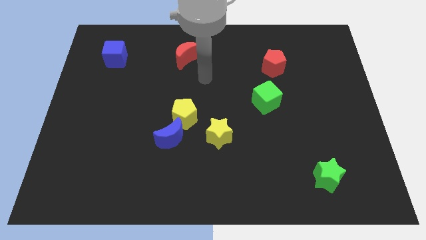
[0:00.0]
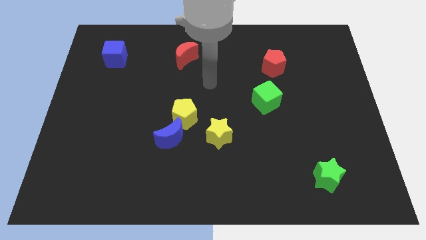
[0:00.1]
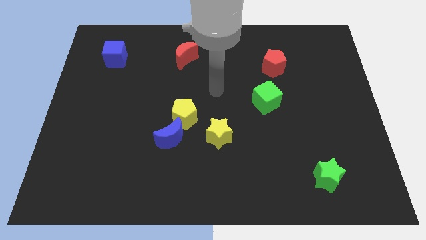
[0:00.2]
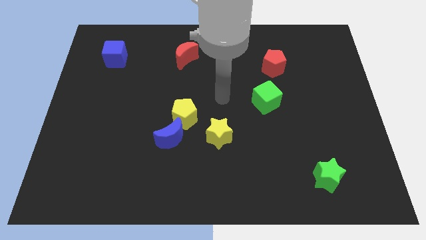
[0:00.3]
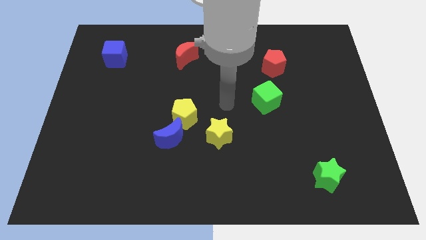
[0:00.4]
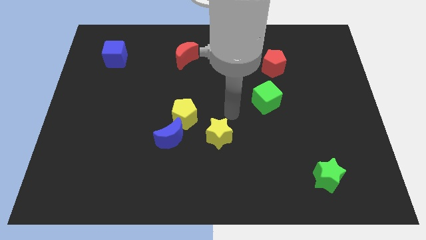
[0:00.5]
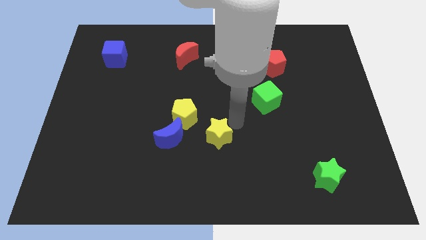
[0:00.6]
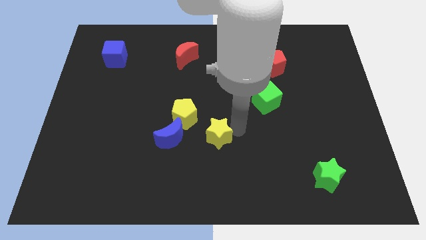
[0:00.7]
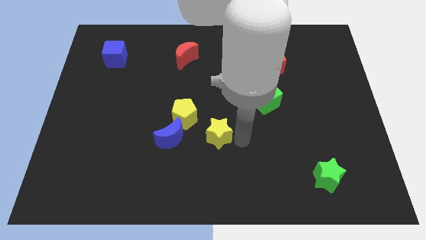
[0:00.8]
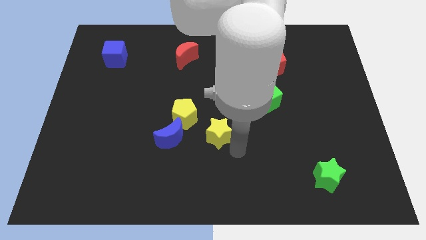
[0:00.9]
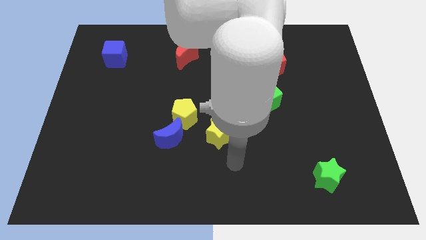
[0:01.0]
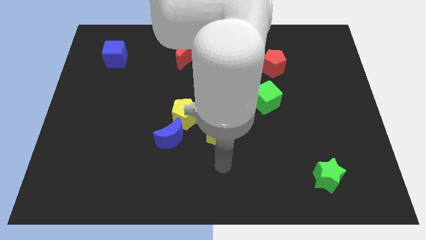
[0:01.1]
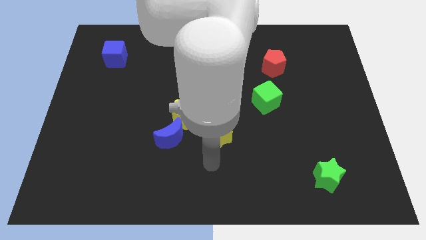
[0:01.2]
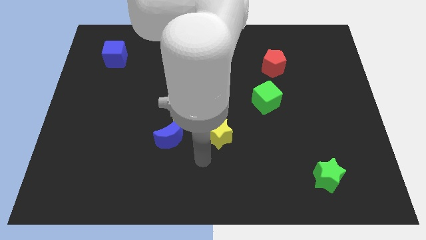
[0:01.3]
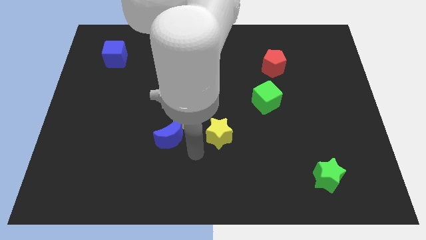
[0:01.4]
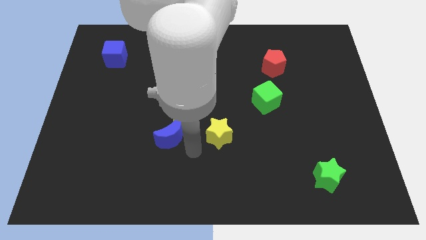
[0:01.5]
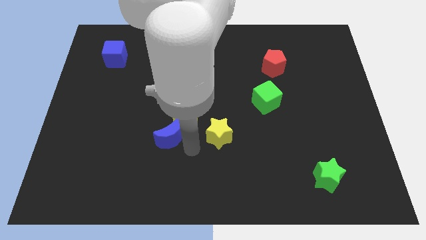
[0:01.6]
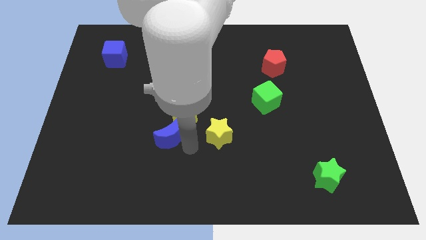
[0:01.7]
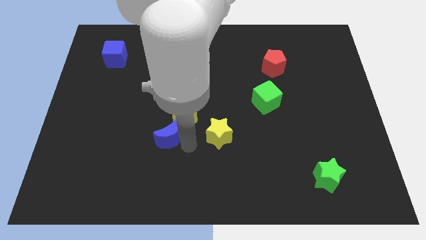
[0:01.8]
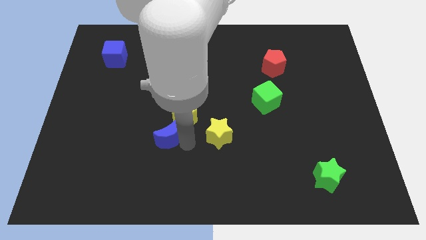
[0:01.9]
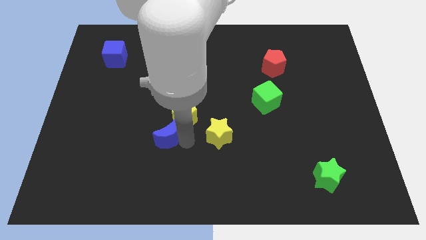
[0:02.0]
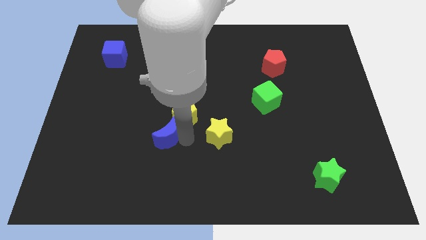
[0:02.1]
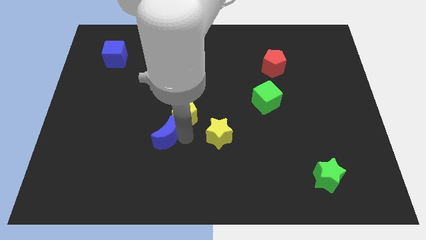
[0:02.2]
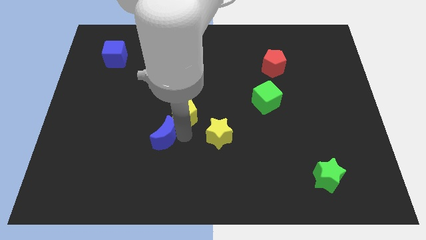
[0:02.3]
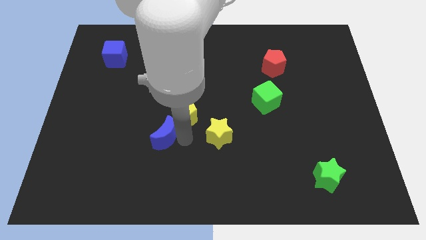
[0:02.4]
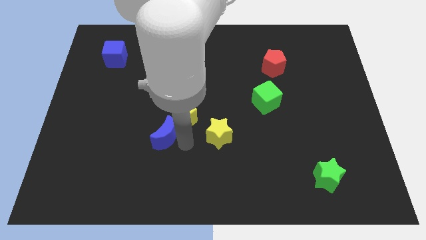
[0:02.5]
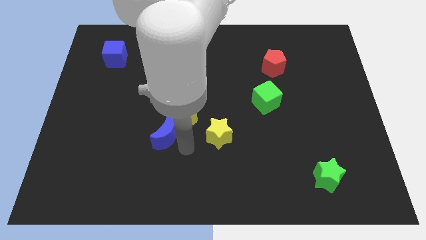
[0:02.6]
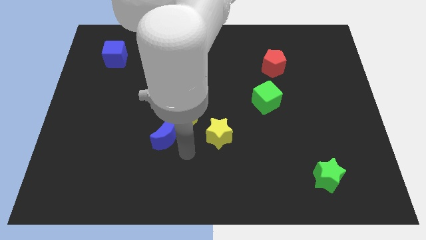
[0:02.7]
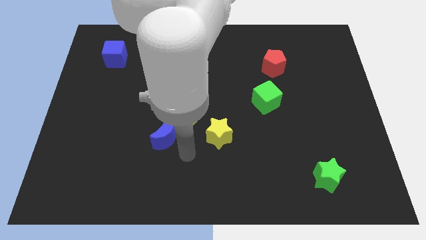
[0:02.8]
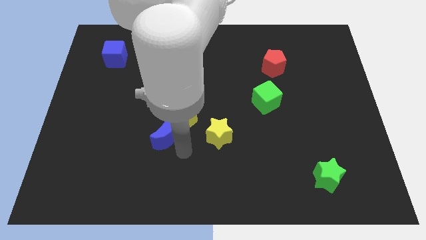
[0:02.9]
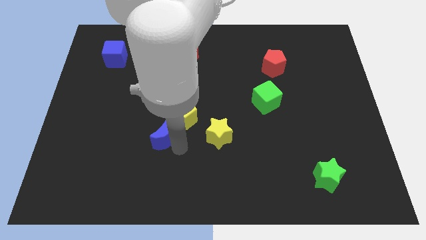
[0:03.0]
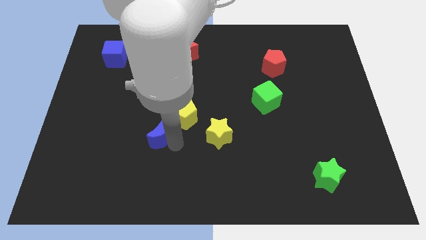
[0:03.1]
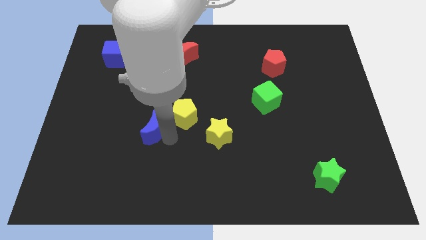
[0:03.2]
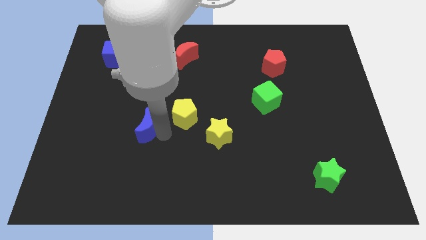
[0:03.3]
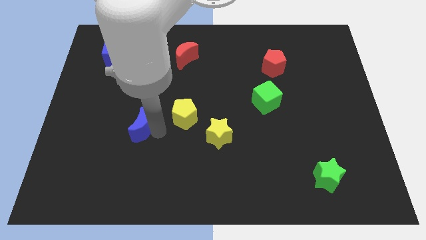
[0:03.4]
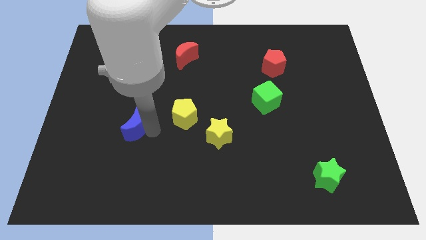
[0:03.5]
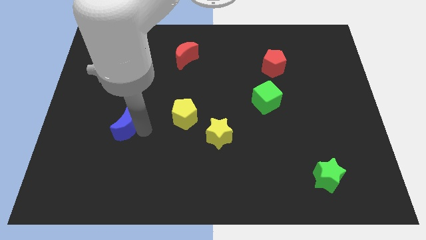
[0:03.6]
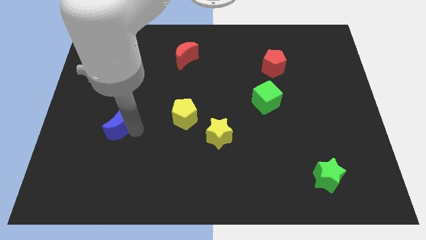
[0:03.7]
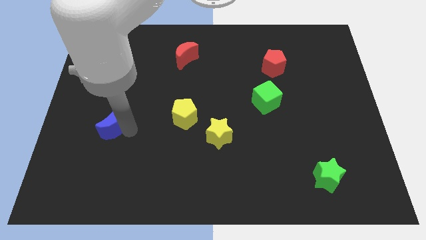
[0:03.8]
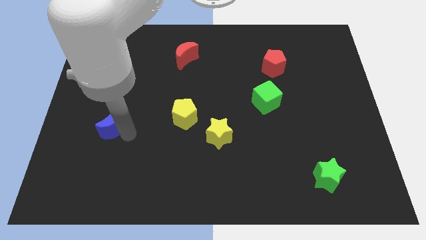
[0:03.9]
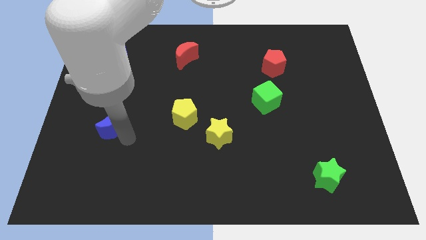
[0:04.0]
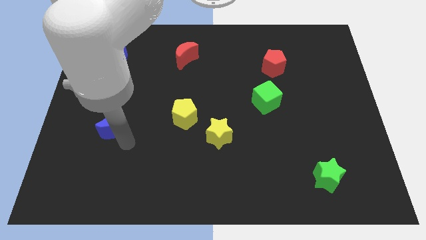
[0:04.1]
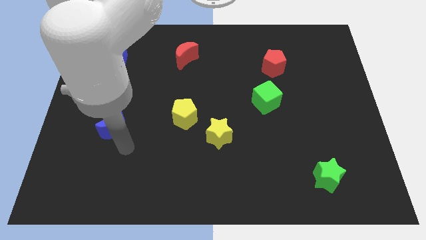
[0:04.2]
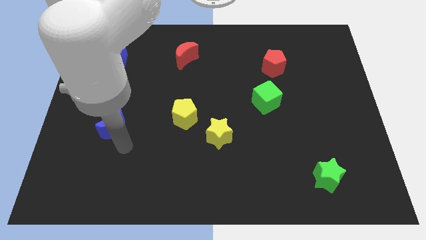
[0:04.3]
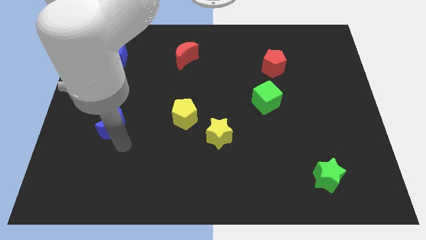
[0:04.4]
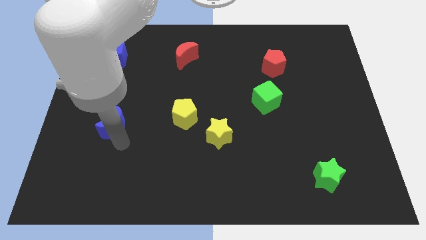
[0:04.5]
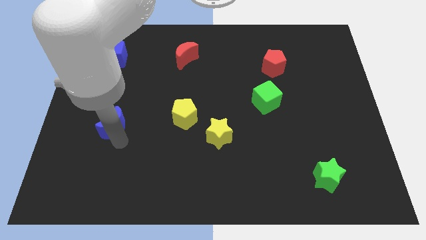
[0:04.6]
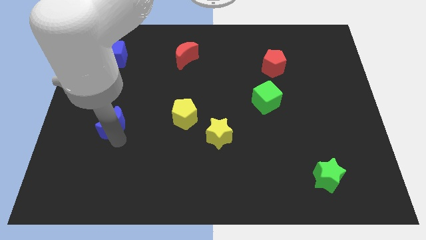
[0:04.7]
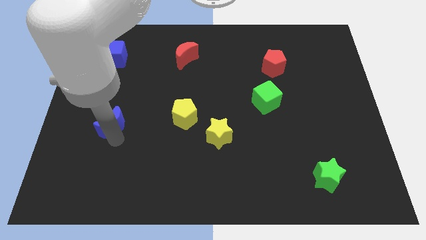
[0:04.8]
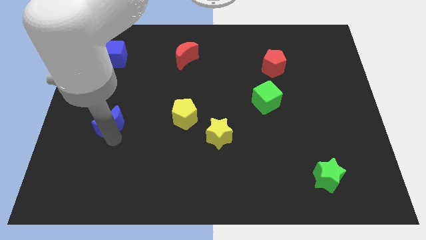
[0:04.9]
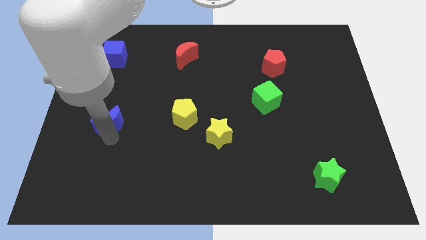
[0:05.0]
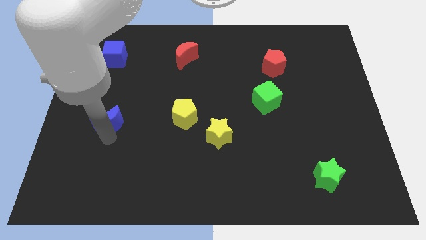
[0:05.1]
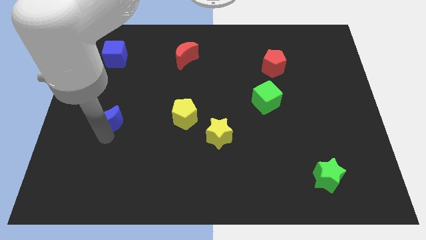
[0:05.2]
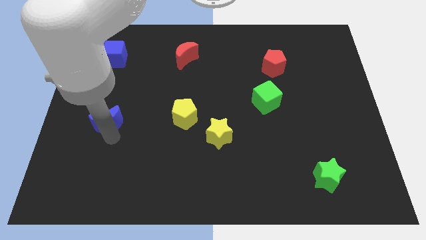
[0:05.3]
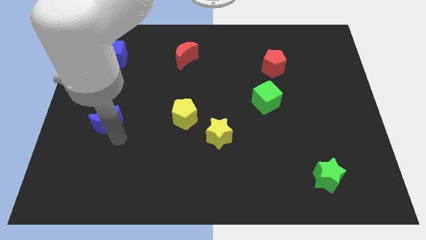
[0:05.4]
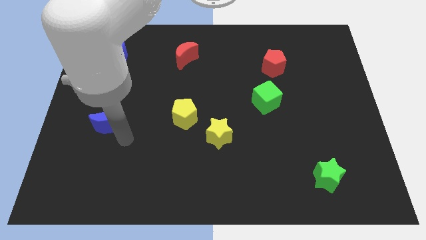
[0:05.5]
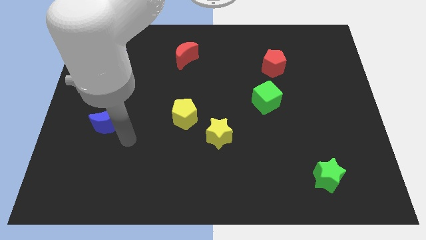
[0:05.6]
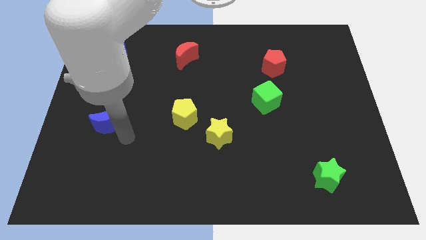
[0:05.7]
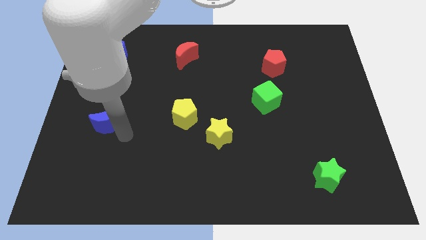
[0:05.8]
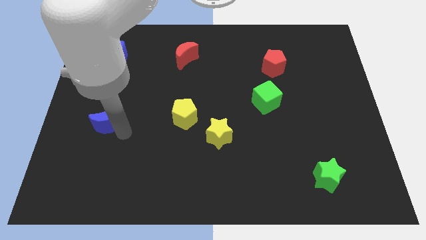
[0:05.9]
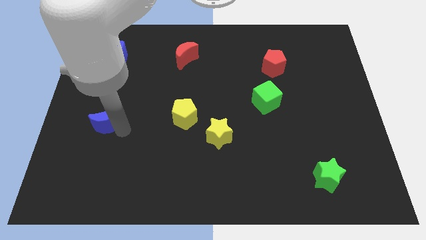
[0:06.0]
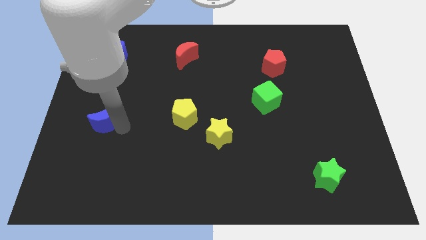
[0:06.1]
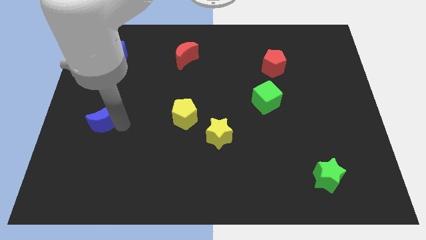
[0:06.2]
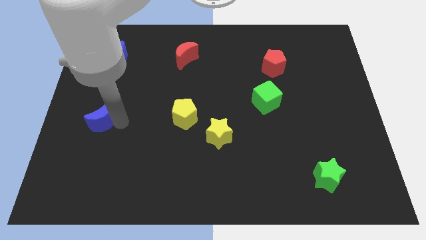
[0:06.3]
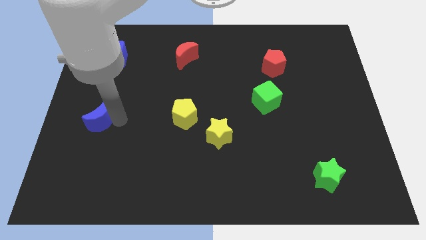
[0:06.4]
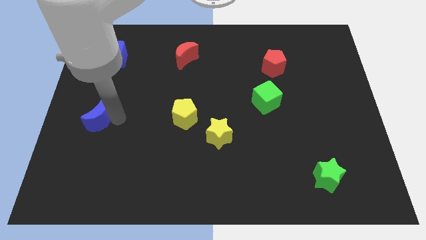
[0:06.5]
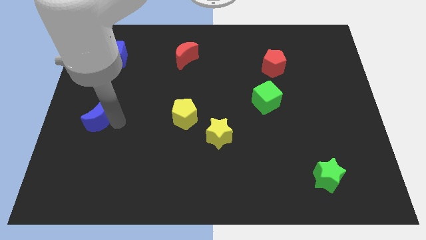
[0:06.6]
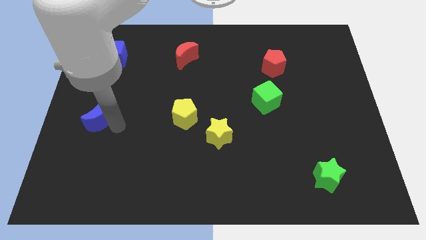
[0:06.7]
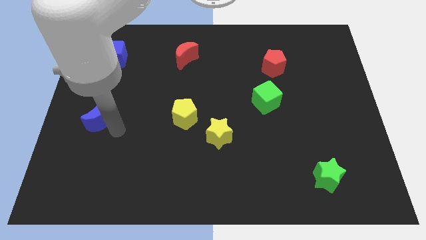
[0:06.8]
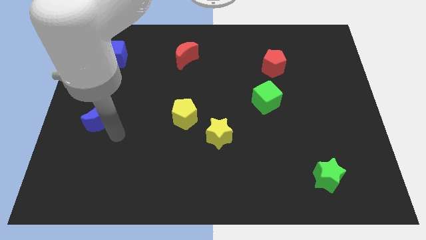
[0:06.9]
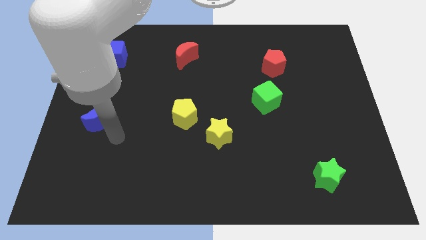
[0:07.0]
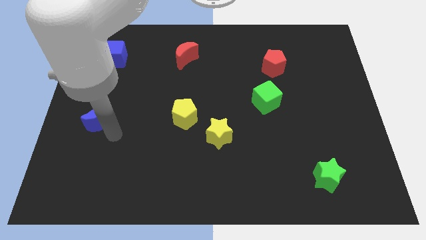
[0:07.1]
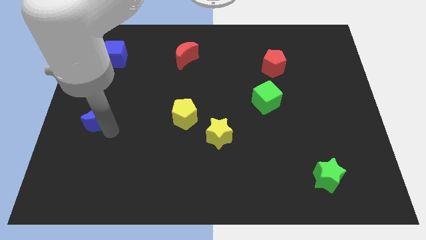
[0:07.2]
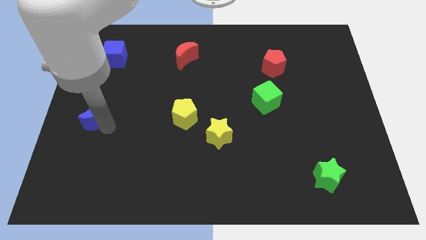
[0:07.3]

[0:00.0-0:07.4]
put the blue moon to the left side of the board
